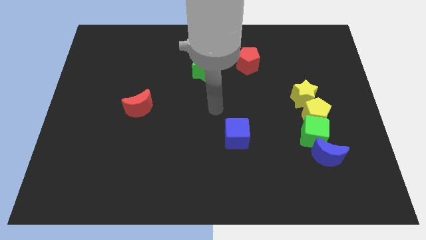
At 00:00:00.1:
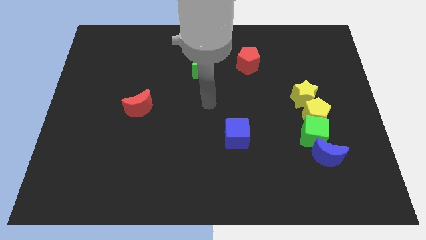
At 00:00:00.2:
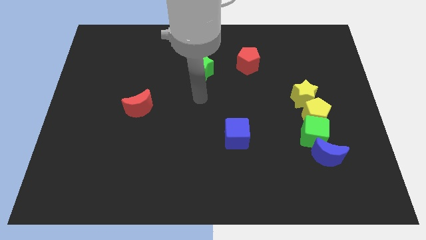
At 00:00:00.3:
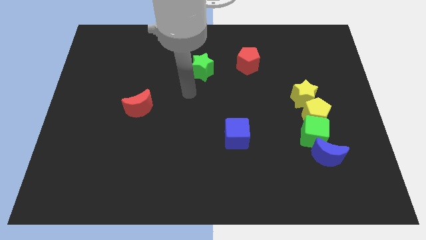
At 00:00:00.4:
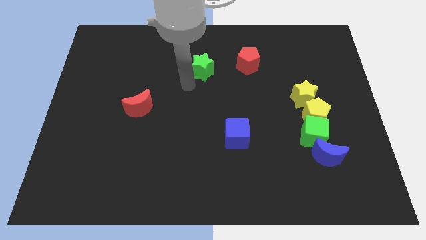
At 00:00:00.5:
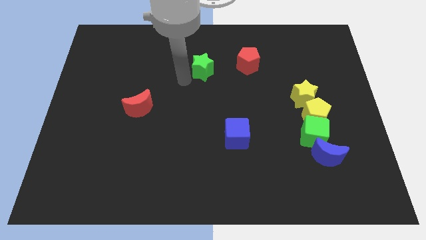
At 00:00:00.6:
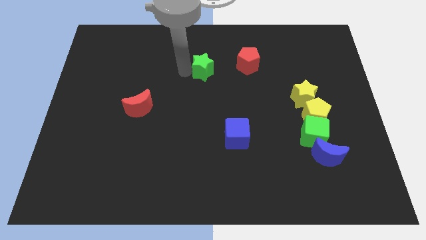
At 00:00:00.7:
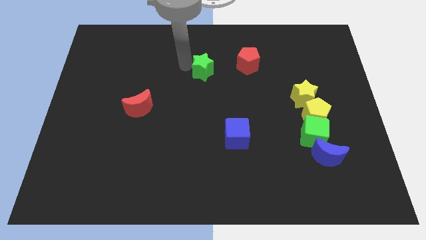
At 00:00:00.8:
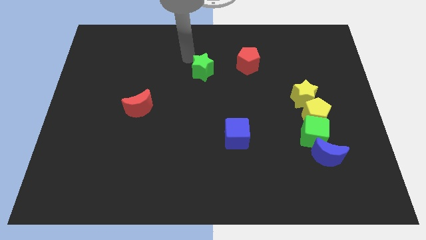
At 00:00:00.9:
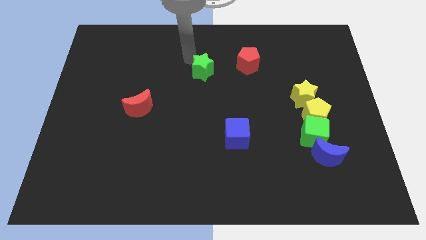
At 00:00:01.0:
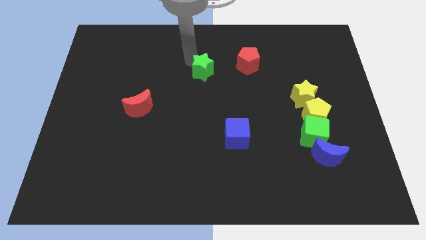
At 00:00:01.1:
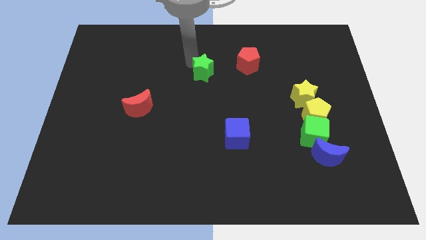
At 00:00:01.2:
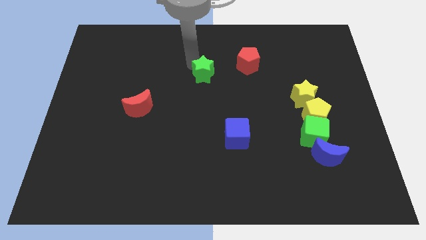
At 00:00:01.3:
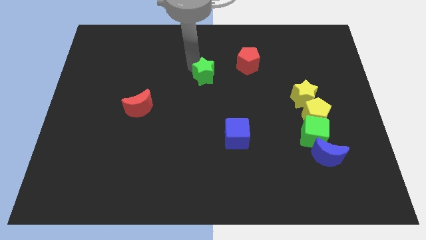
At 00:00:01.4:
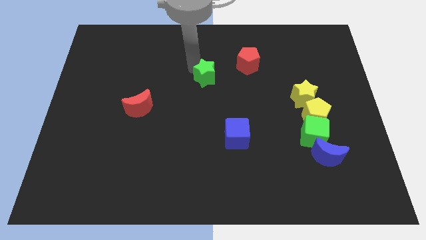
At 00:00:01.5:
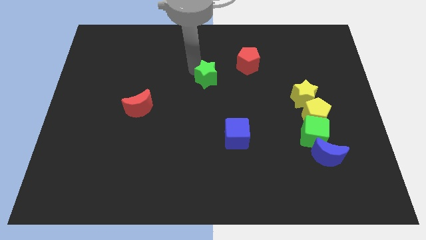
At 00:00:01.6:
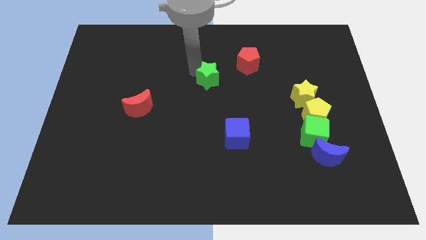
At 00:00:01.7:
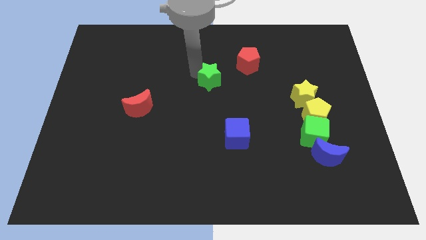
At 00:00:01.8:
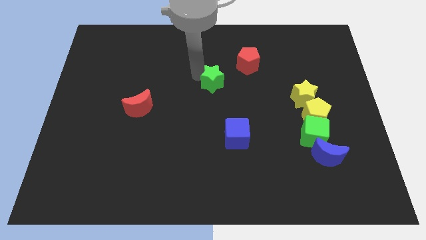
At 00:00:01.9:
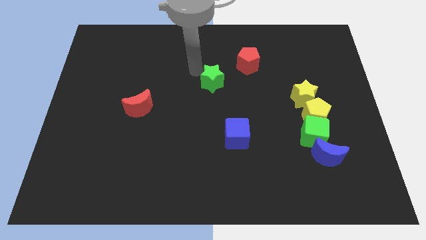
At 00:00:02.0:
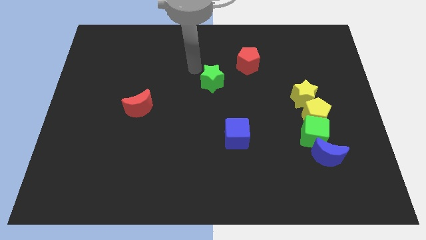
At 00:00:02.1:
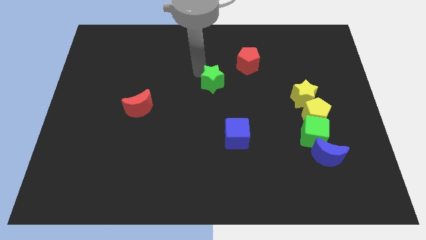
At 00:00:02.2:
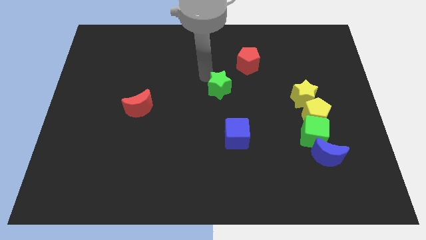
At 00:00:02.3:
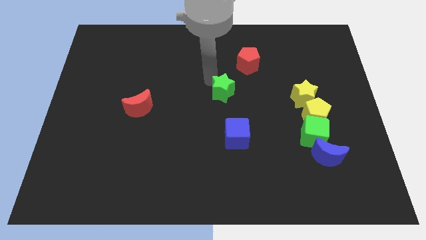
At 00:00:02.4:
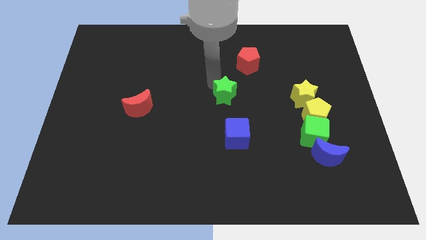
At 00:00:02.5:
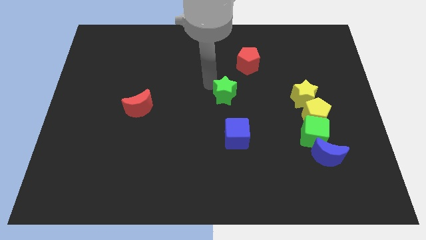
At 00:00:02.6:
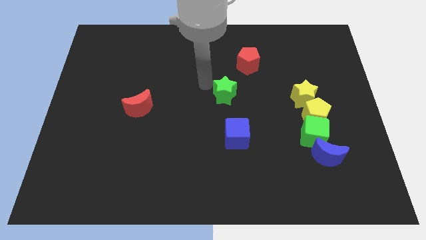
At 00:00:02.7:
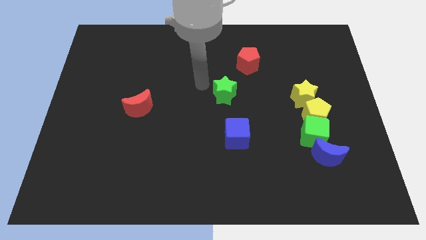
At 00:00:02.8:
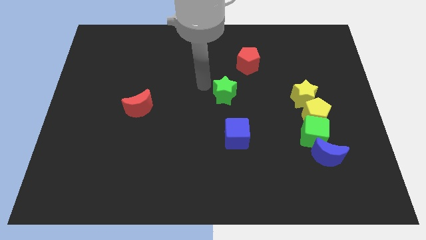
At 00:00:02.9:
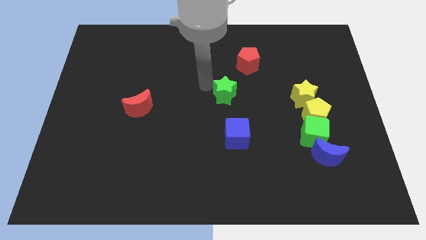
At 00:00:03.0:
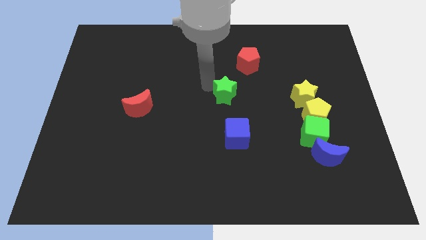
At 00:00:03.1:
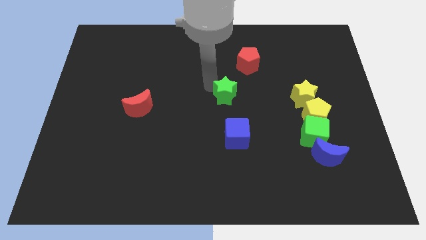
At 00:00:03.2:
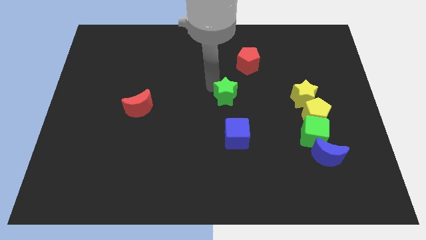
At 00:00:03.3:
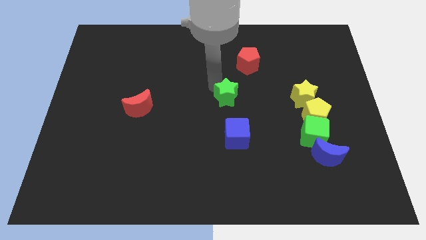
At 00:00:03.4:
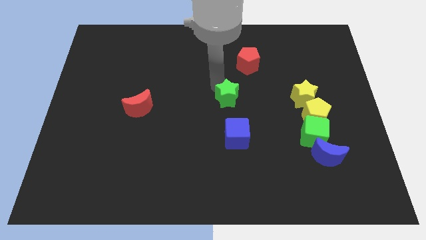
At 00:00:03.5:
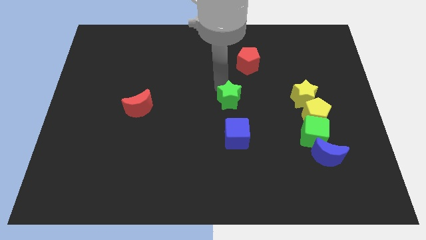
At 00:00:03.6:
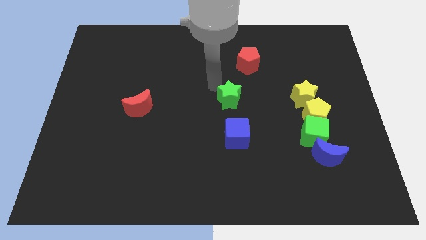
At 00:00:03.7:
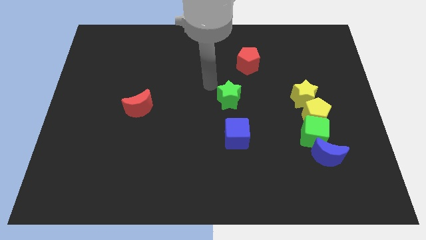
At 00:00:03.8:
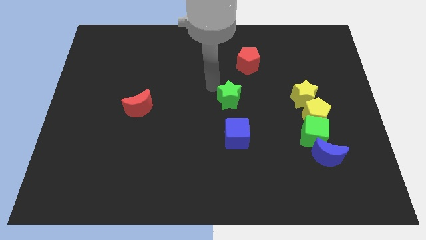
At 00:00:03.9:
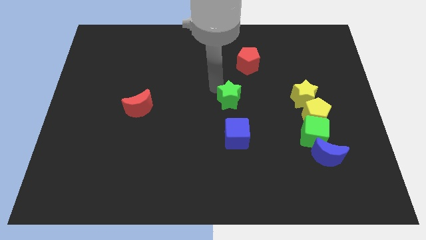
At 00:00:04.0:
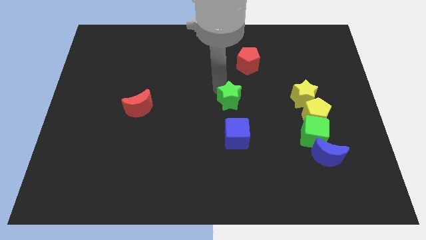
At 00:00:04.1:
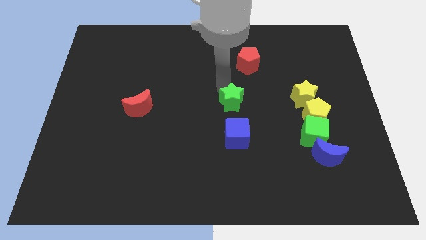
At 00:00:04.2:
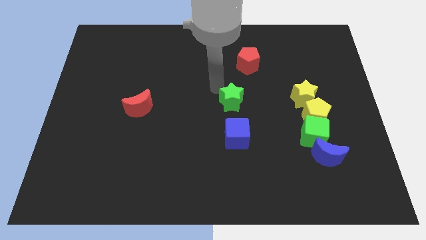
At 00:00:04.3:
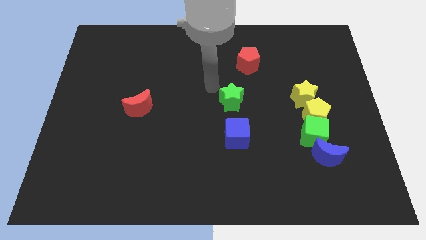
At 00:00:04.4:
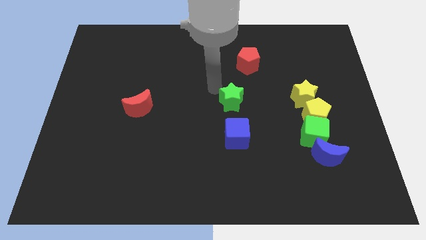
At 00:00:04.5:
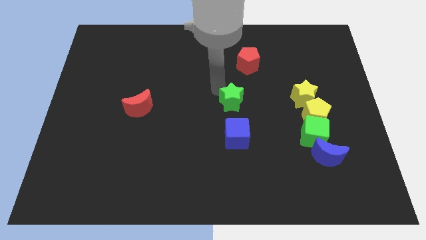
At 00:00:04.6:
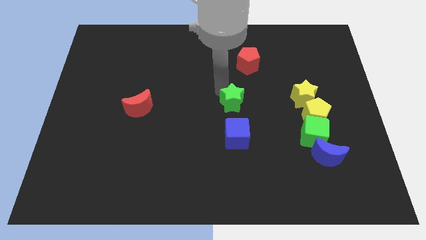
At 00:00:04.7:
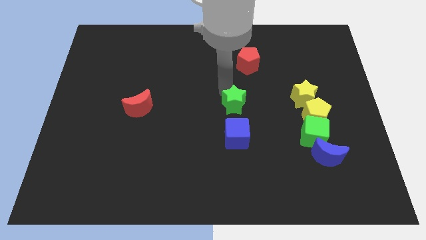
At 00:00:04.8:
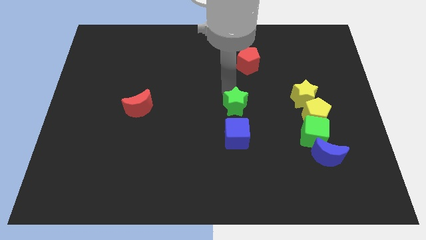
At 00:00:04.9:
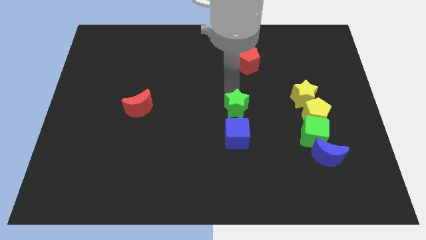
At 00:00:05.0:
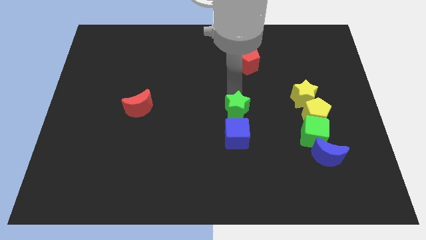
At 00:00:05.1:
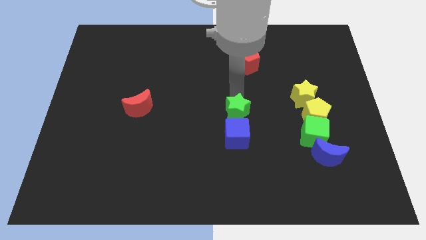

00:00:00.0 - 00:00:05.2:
move the green star to the top right side of the blue cube

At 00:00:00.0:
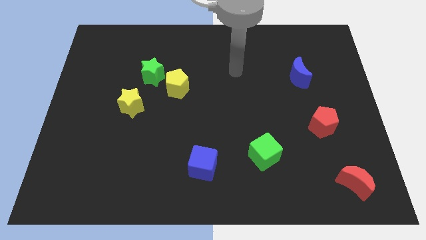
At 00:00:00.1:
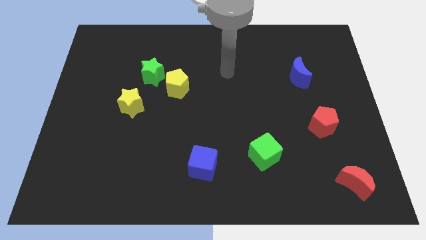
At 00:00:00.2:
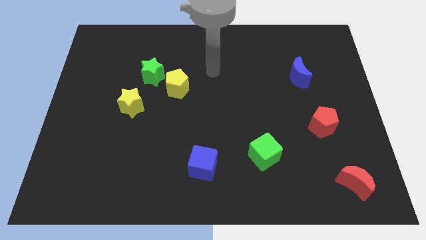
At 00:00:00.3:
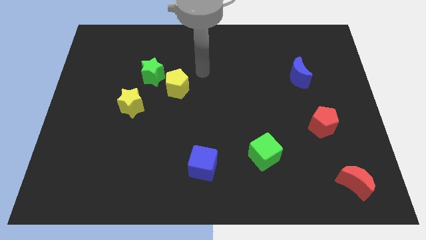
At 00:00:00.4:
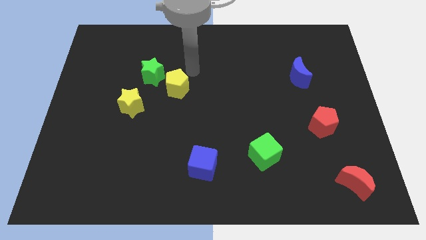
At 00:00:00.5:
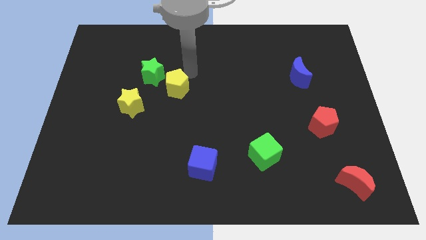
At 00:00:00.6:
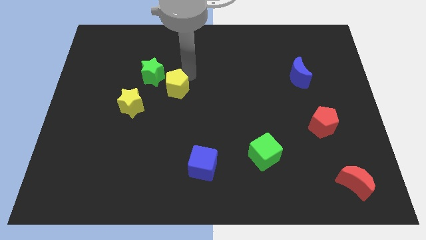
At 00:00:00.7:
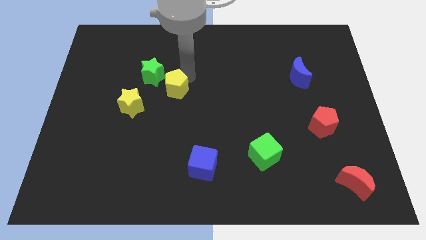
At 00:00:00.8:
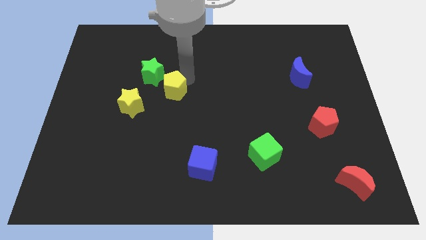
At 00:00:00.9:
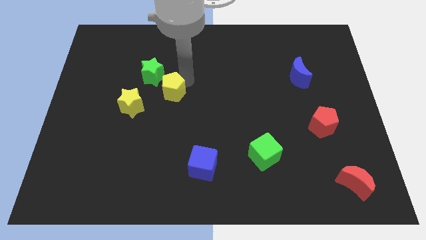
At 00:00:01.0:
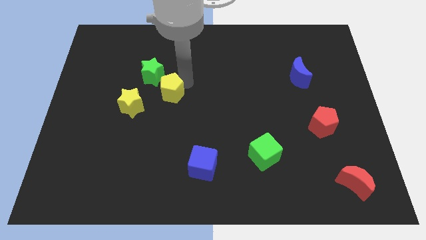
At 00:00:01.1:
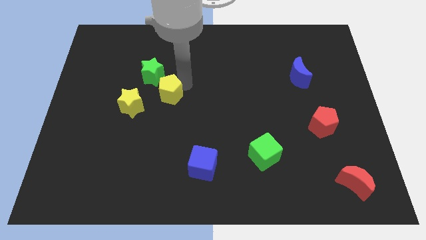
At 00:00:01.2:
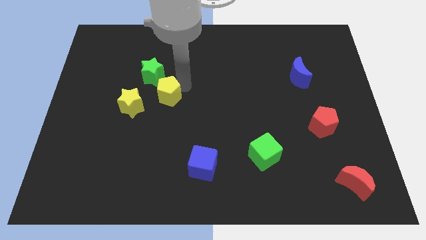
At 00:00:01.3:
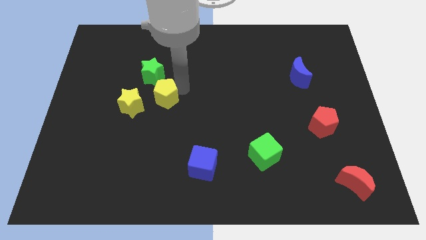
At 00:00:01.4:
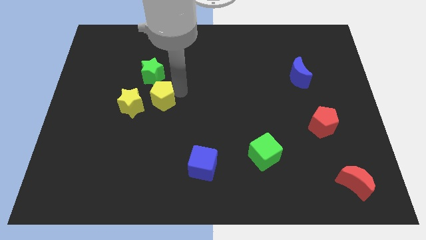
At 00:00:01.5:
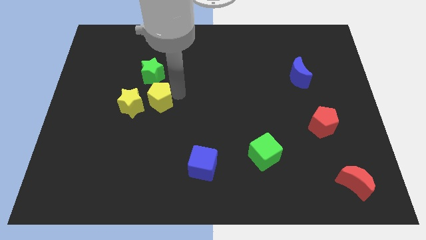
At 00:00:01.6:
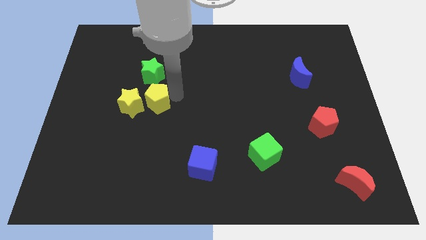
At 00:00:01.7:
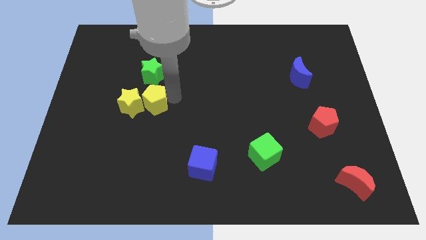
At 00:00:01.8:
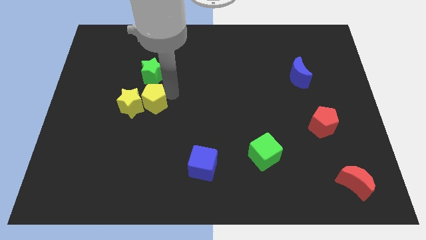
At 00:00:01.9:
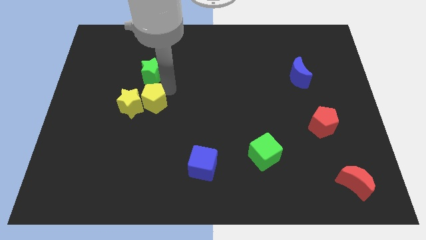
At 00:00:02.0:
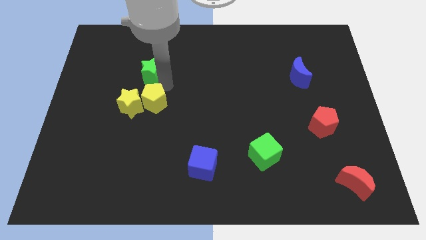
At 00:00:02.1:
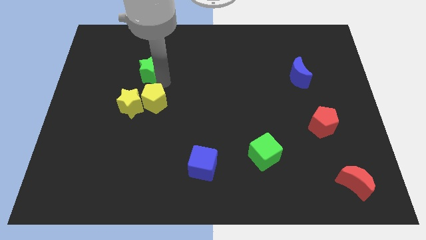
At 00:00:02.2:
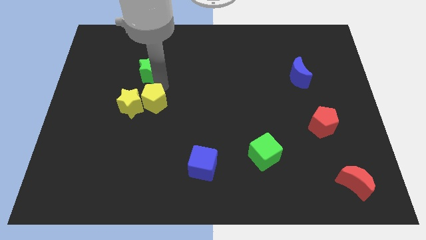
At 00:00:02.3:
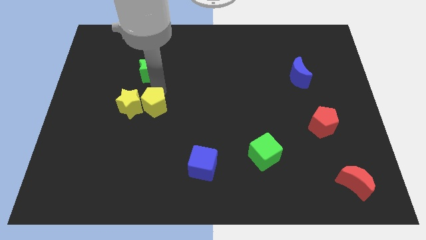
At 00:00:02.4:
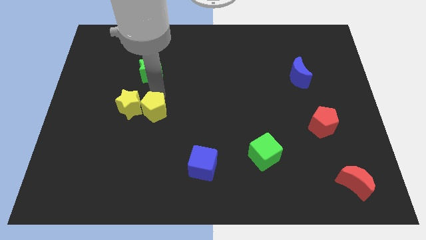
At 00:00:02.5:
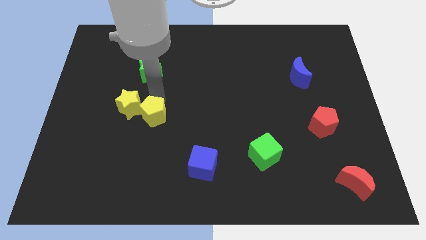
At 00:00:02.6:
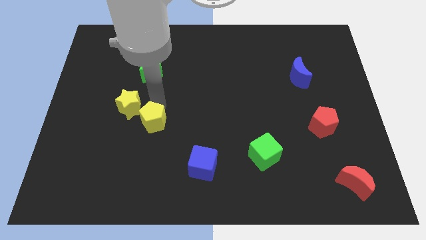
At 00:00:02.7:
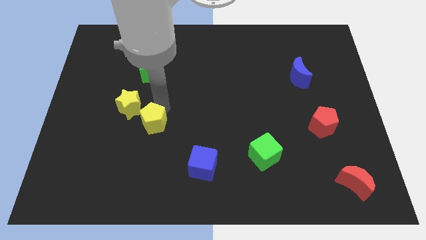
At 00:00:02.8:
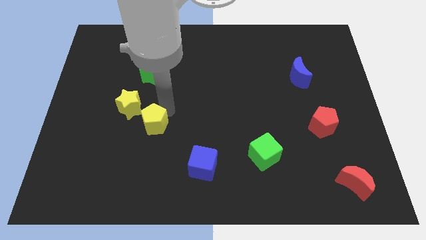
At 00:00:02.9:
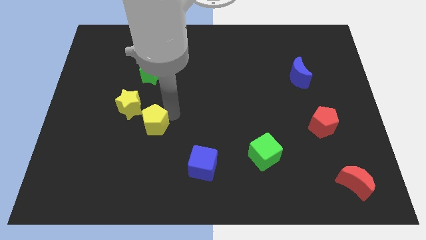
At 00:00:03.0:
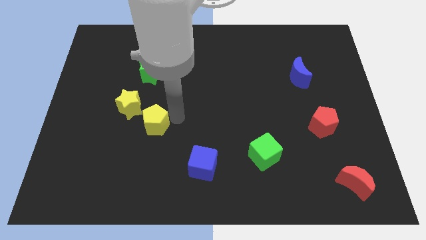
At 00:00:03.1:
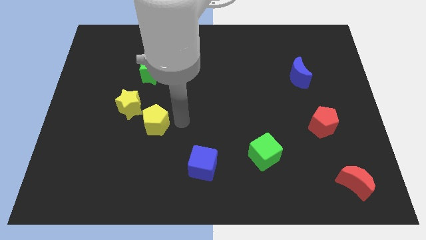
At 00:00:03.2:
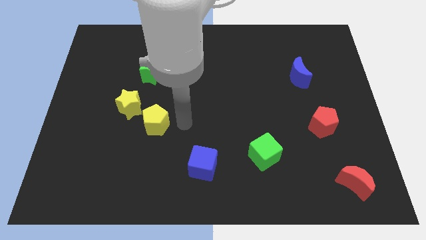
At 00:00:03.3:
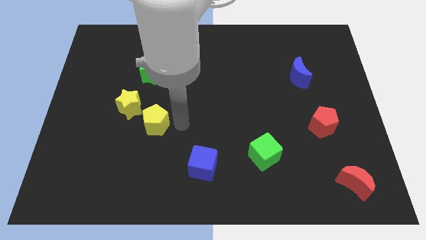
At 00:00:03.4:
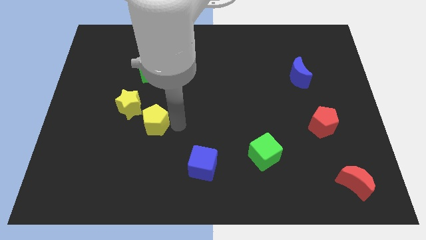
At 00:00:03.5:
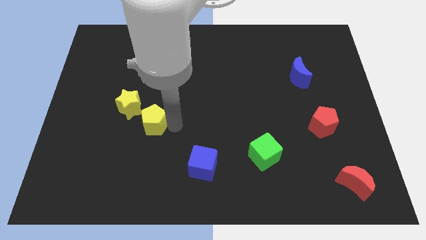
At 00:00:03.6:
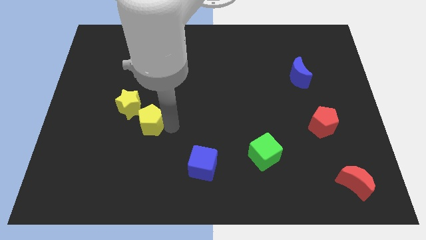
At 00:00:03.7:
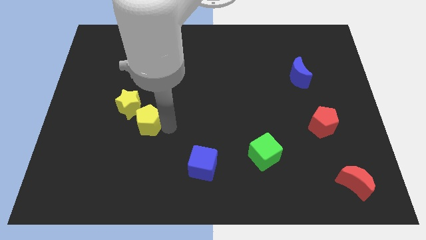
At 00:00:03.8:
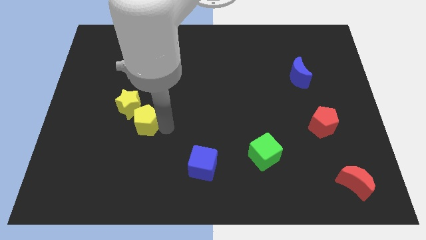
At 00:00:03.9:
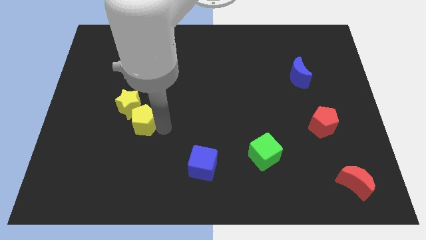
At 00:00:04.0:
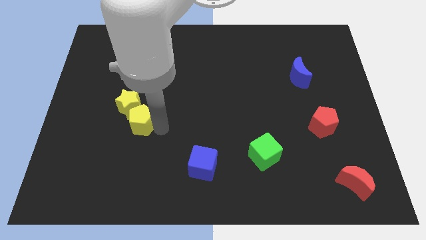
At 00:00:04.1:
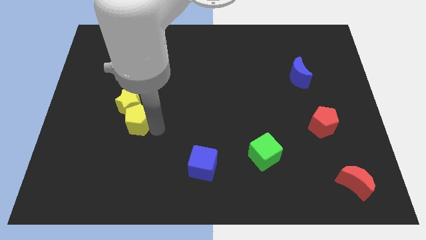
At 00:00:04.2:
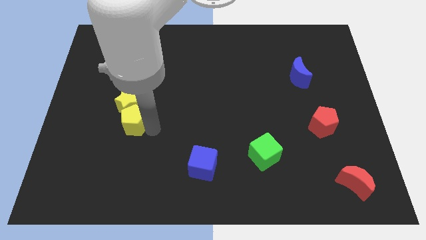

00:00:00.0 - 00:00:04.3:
slide the yellow pentagon to the bottom left side of the yellow star
